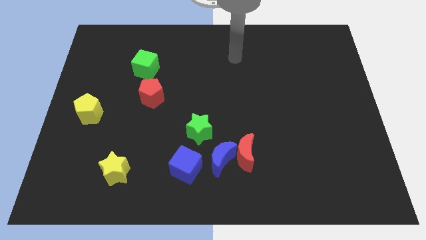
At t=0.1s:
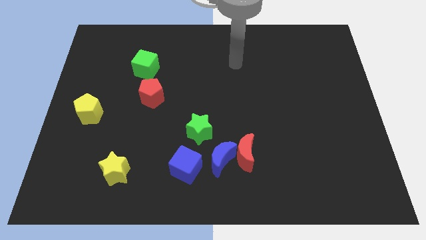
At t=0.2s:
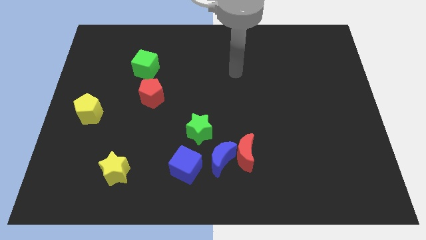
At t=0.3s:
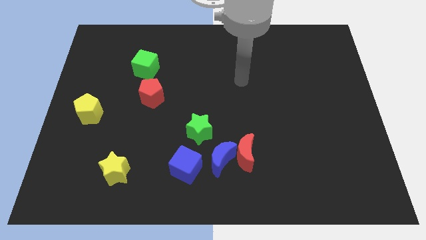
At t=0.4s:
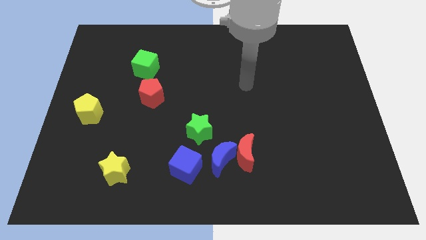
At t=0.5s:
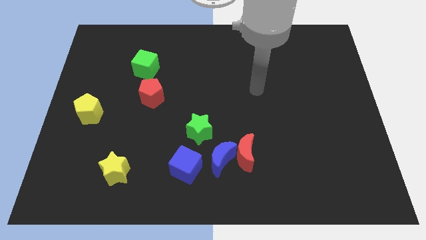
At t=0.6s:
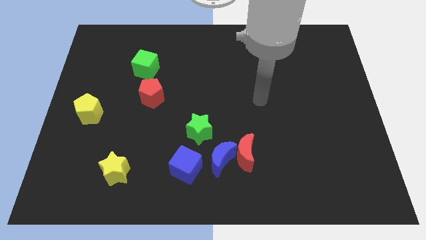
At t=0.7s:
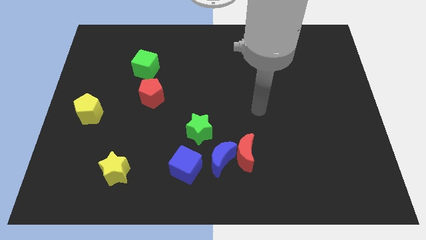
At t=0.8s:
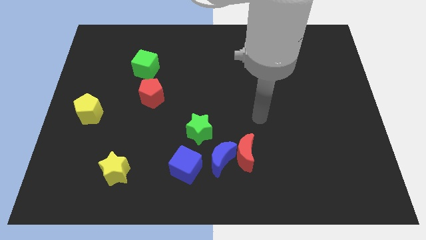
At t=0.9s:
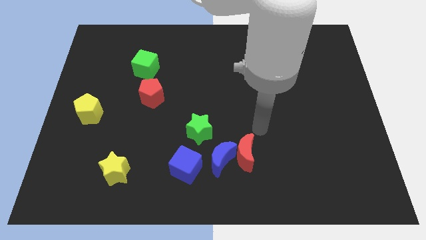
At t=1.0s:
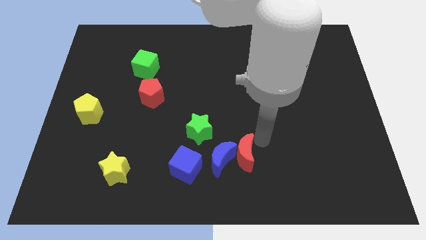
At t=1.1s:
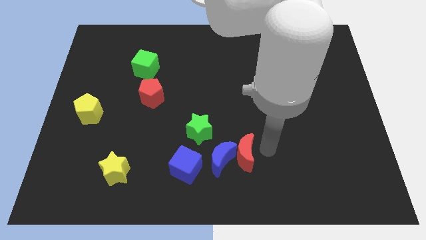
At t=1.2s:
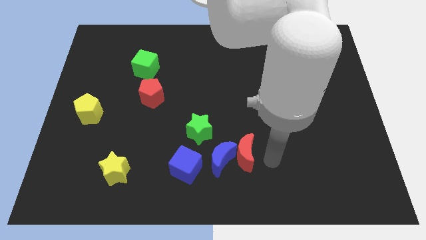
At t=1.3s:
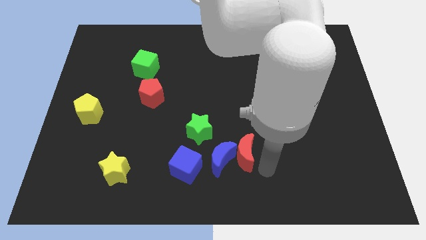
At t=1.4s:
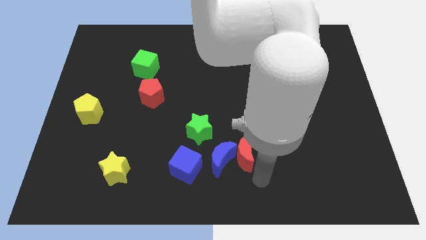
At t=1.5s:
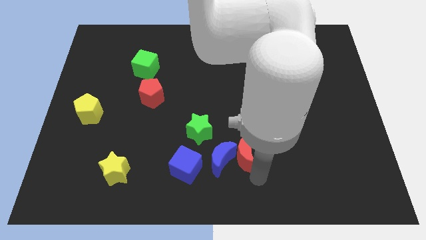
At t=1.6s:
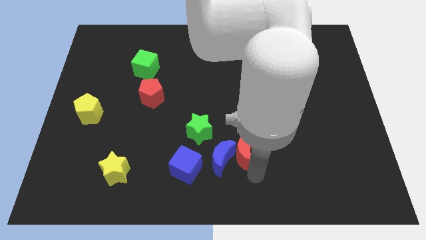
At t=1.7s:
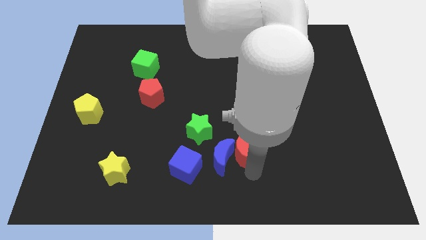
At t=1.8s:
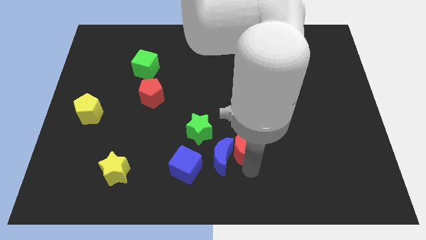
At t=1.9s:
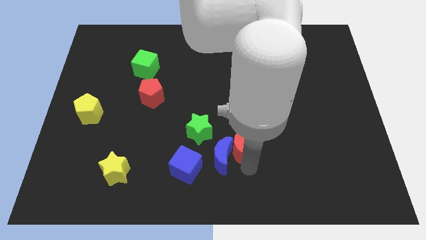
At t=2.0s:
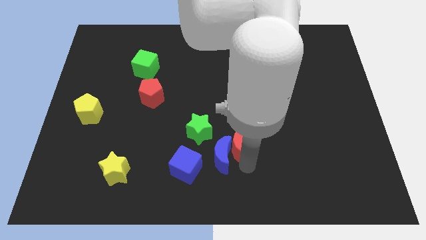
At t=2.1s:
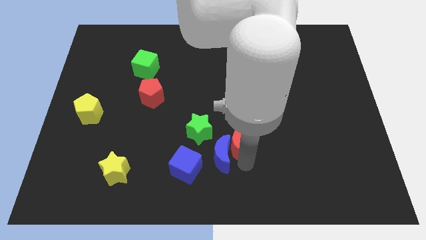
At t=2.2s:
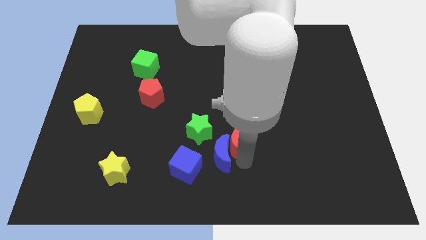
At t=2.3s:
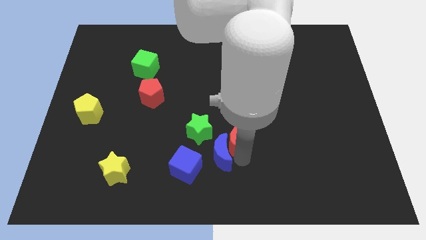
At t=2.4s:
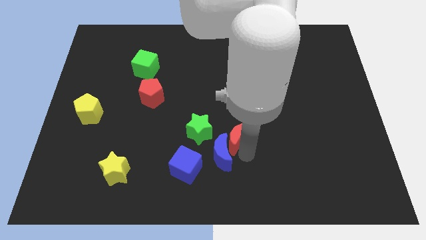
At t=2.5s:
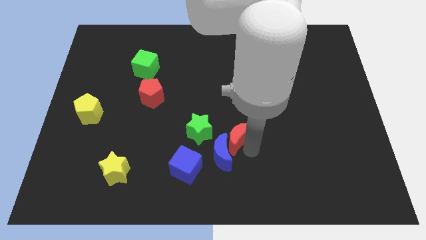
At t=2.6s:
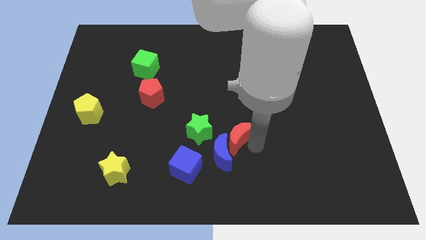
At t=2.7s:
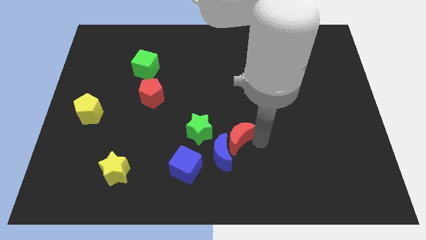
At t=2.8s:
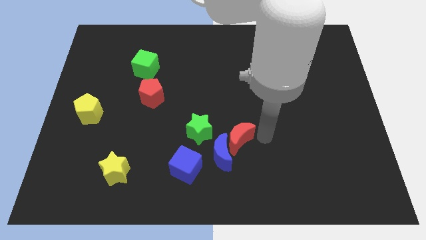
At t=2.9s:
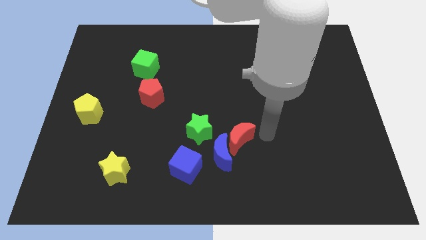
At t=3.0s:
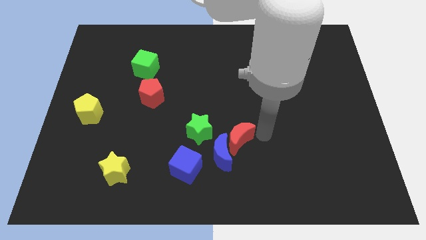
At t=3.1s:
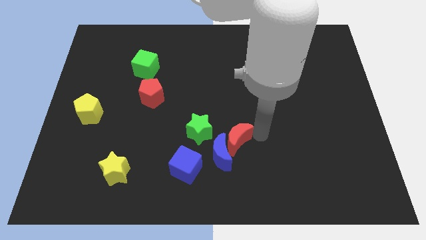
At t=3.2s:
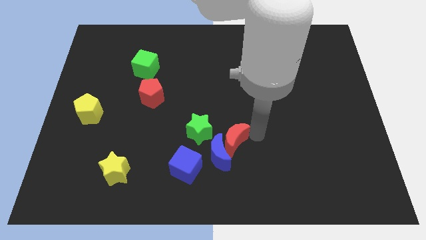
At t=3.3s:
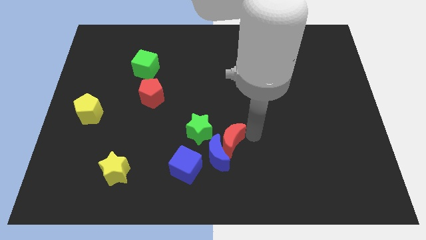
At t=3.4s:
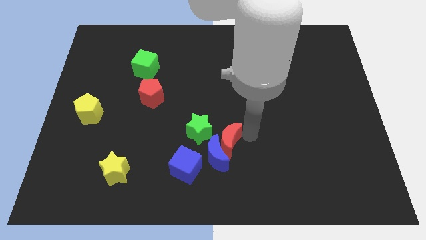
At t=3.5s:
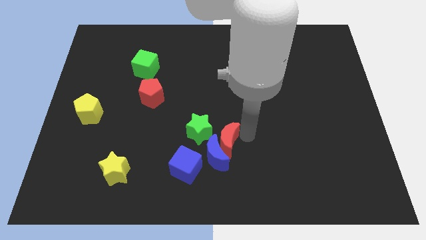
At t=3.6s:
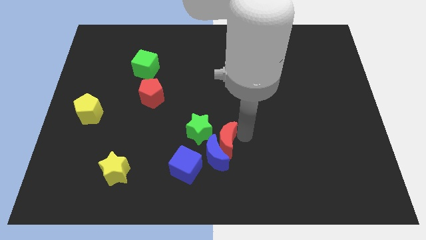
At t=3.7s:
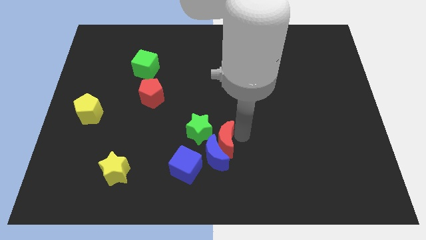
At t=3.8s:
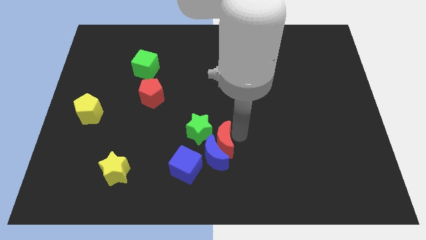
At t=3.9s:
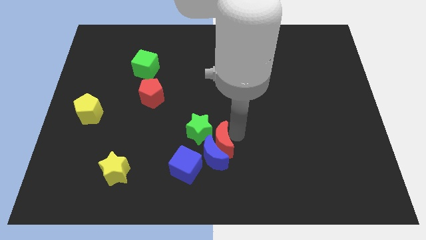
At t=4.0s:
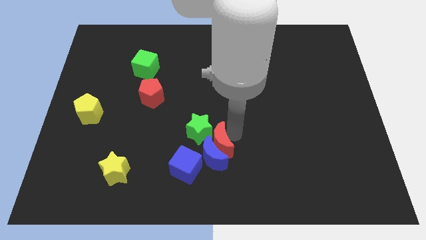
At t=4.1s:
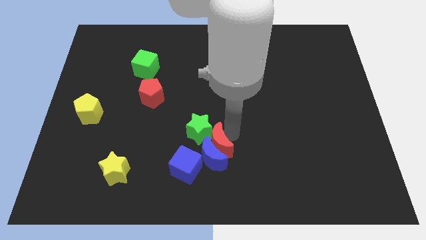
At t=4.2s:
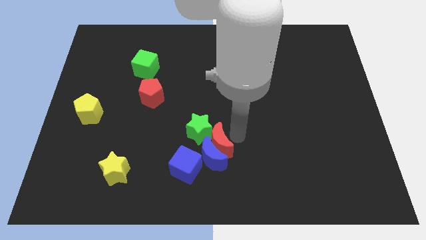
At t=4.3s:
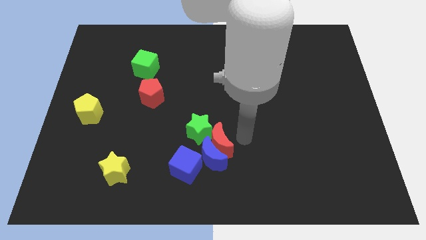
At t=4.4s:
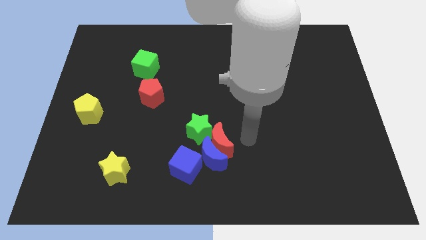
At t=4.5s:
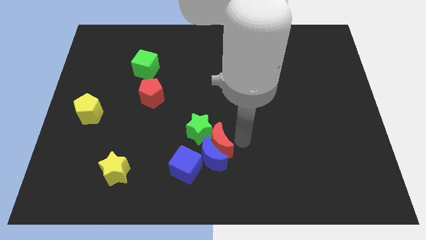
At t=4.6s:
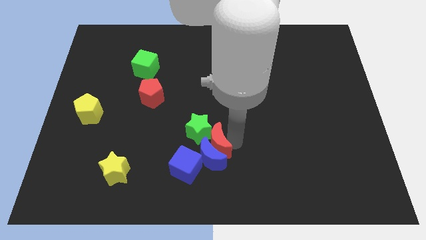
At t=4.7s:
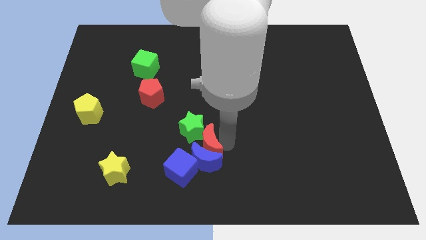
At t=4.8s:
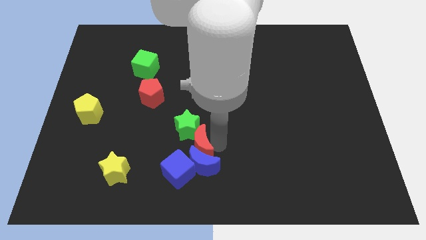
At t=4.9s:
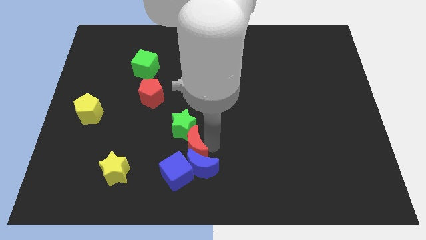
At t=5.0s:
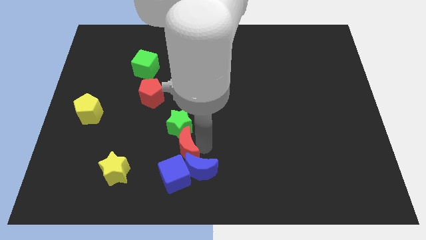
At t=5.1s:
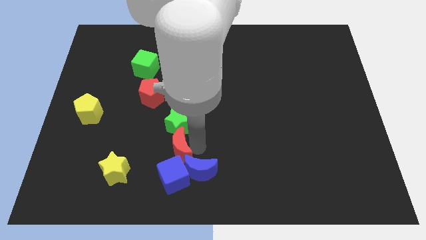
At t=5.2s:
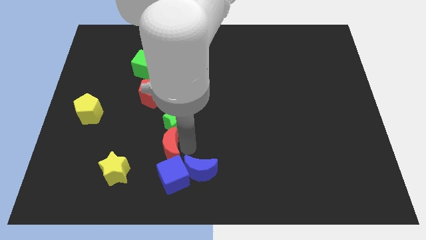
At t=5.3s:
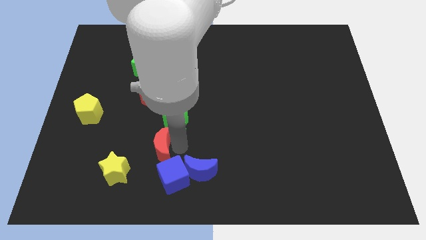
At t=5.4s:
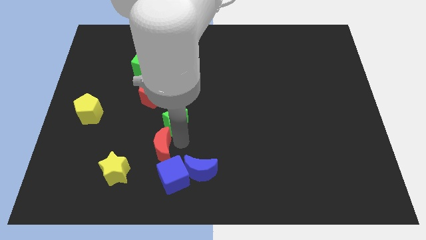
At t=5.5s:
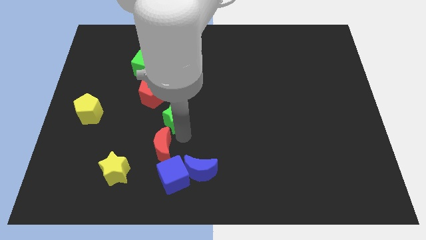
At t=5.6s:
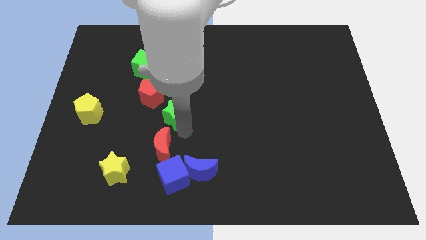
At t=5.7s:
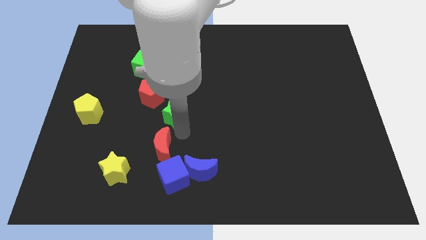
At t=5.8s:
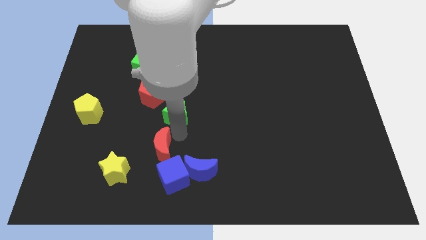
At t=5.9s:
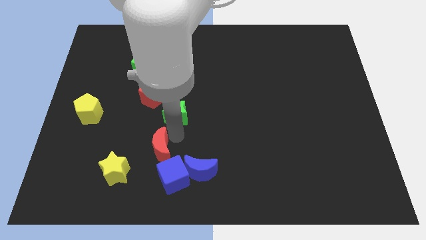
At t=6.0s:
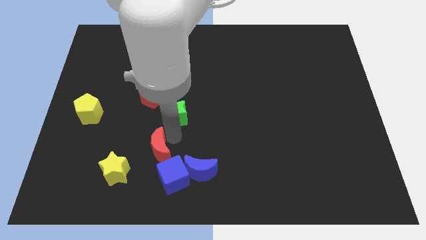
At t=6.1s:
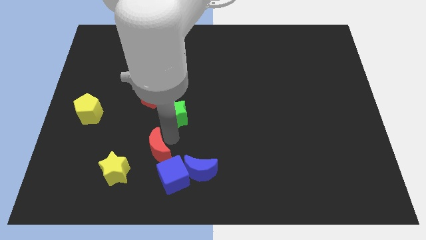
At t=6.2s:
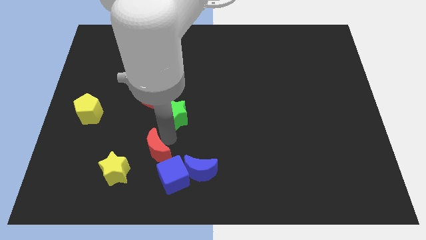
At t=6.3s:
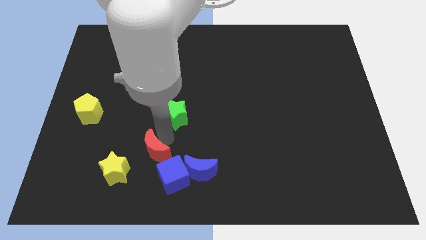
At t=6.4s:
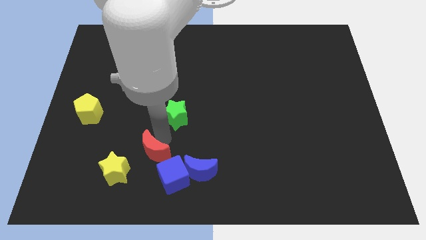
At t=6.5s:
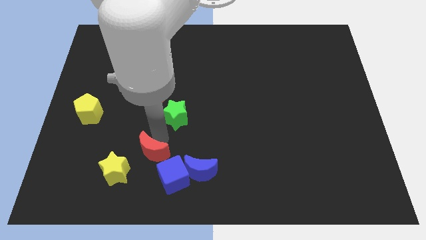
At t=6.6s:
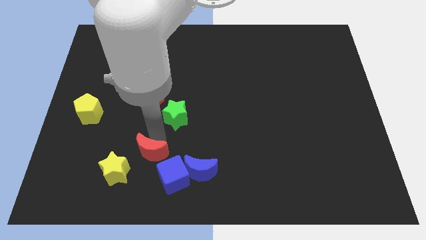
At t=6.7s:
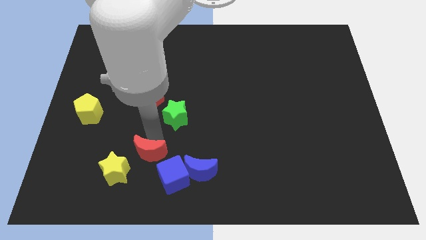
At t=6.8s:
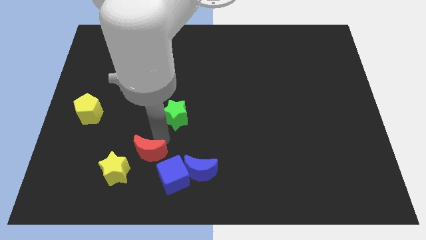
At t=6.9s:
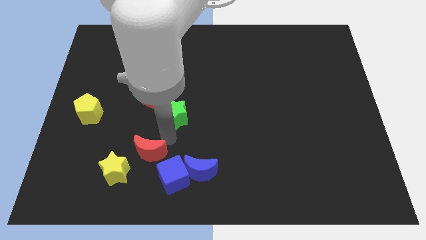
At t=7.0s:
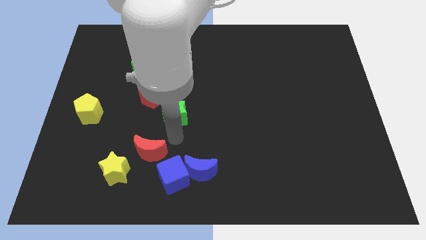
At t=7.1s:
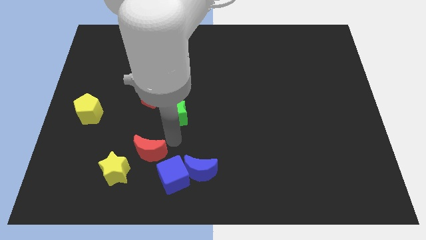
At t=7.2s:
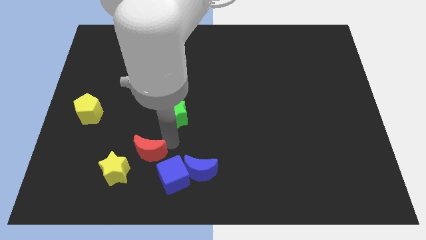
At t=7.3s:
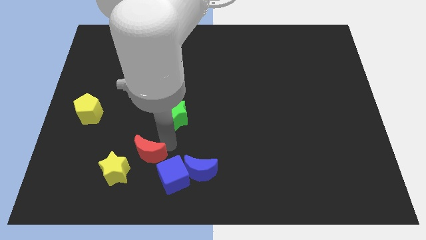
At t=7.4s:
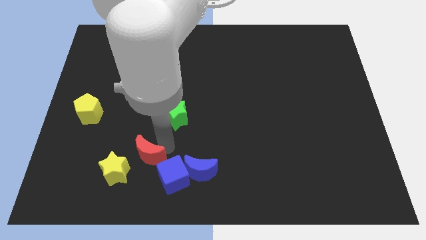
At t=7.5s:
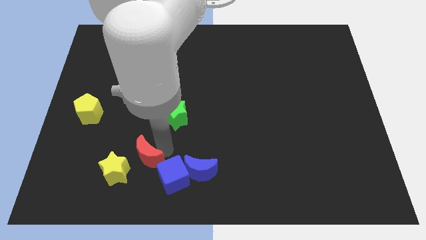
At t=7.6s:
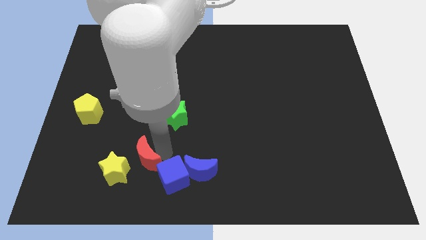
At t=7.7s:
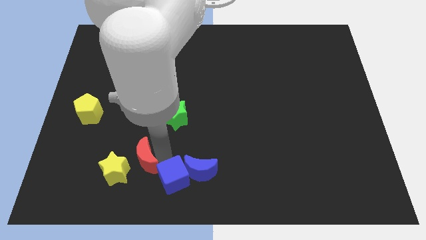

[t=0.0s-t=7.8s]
slide the red moon towards the yellow star
